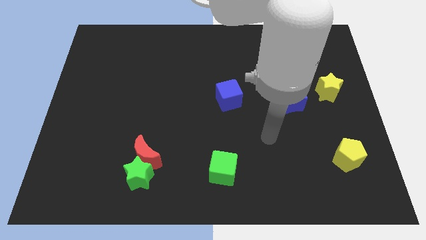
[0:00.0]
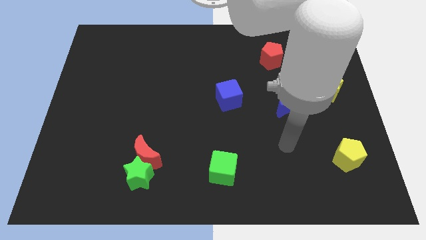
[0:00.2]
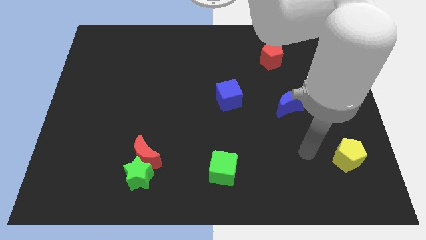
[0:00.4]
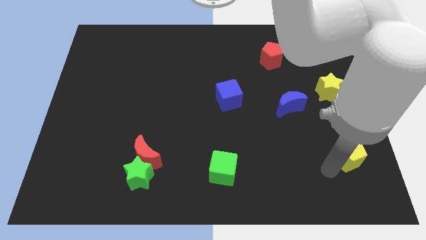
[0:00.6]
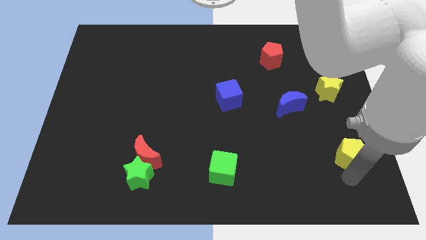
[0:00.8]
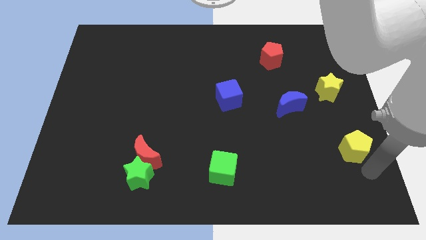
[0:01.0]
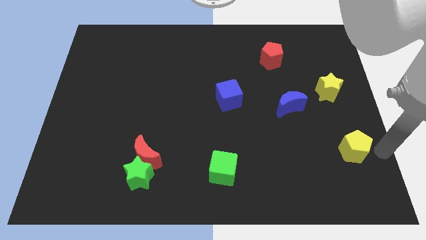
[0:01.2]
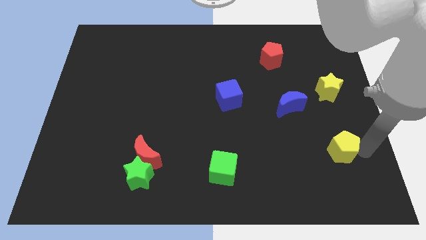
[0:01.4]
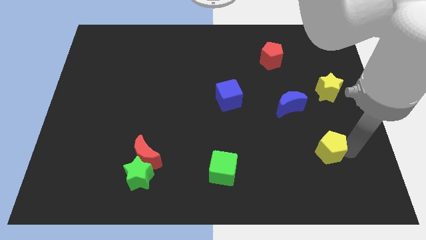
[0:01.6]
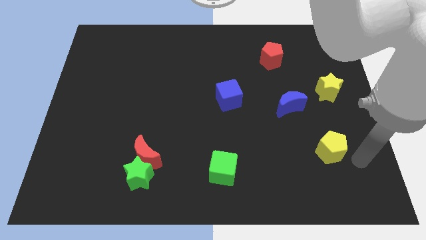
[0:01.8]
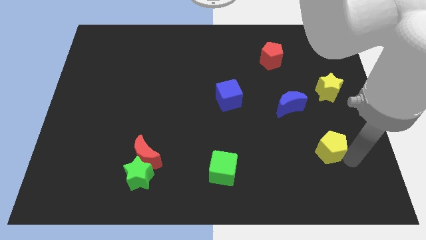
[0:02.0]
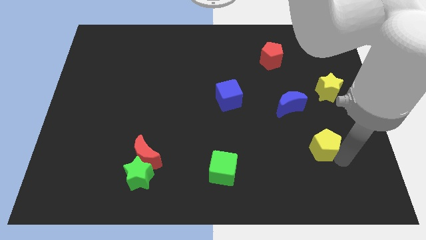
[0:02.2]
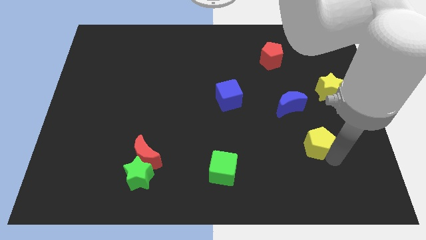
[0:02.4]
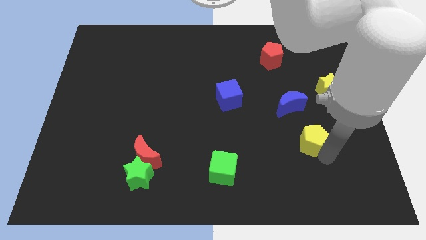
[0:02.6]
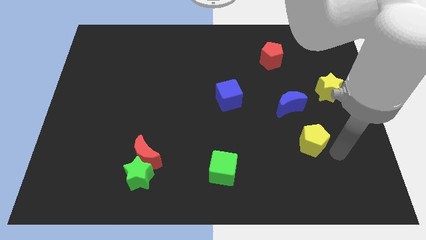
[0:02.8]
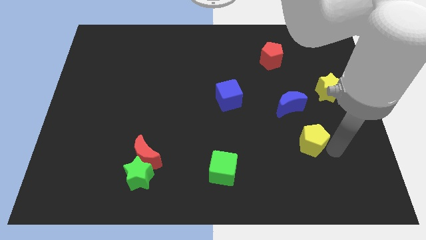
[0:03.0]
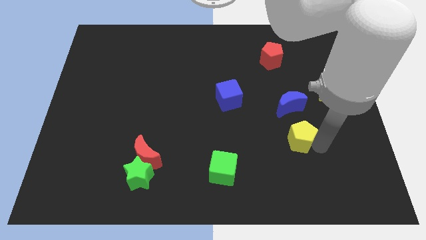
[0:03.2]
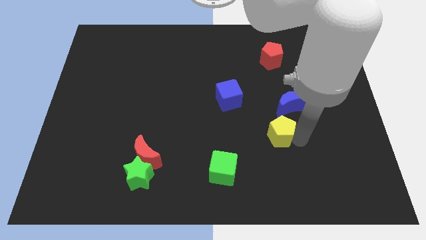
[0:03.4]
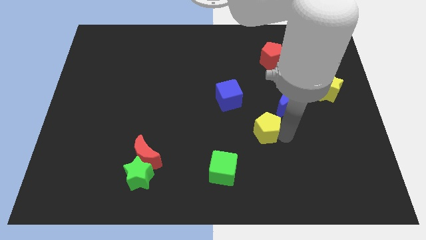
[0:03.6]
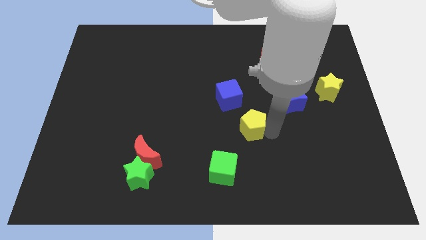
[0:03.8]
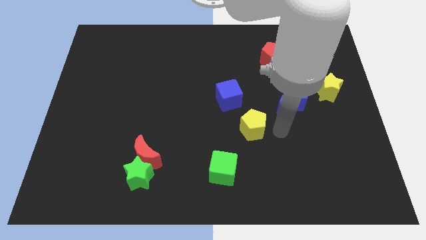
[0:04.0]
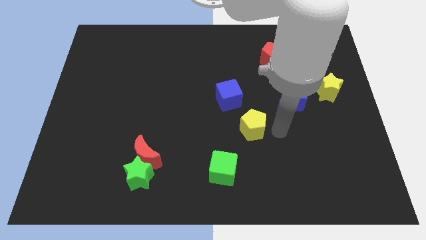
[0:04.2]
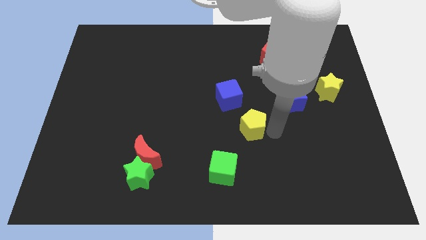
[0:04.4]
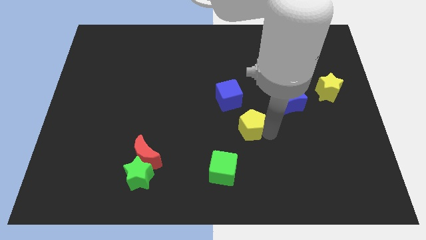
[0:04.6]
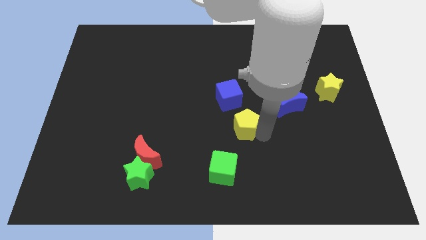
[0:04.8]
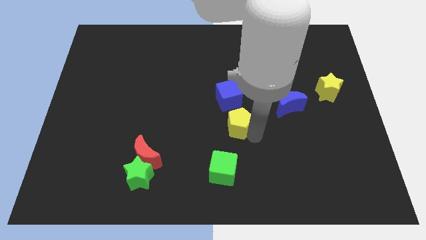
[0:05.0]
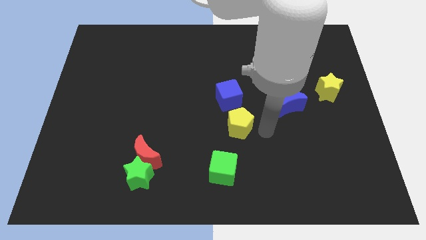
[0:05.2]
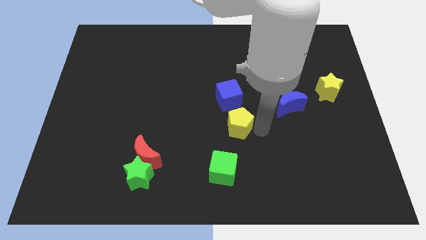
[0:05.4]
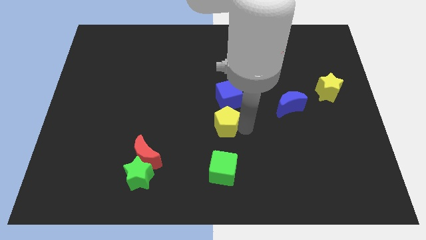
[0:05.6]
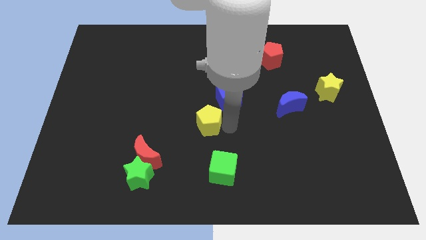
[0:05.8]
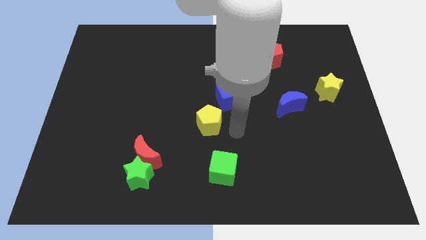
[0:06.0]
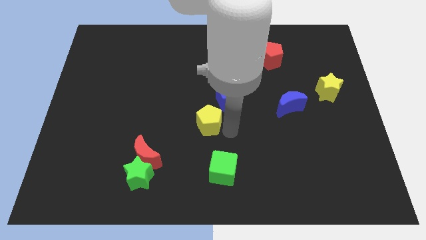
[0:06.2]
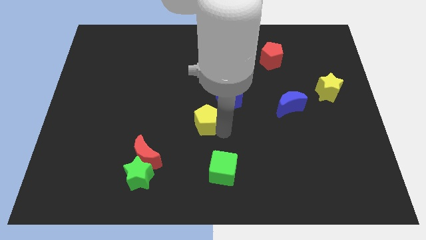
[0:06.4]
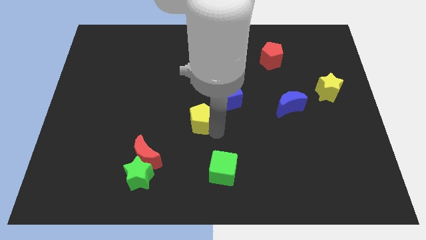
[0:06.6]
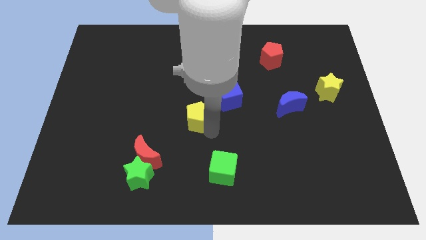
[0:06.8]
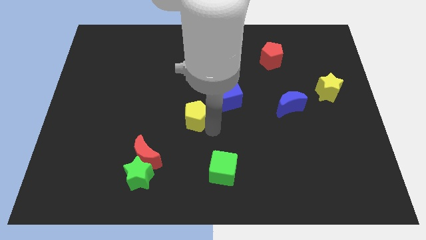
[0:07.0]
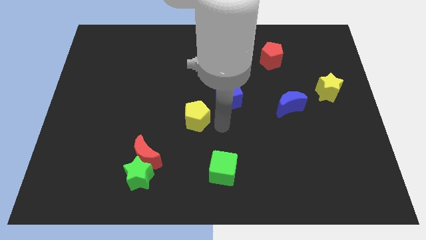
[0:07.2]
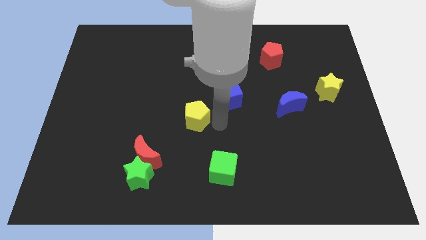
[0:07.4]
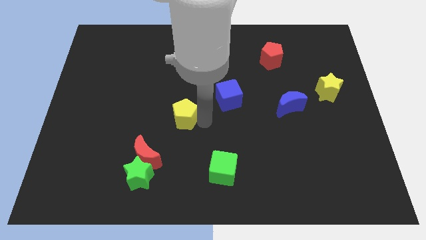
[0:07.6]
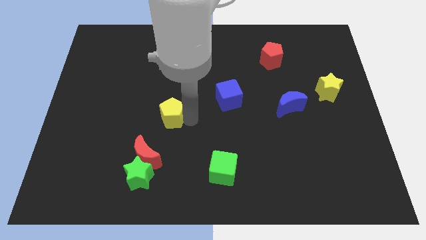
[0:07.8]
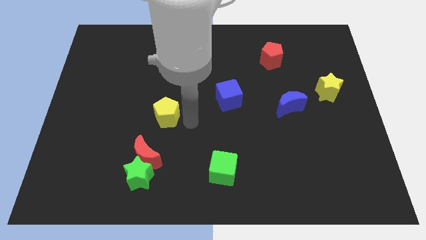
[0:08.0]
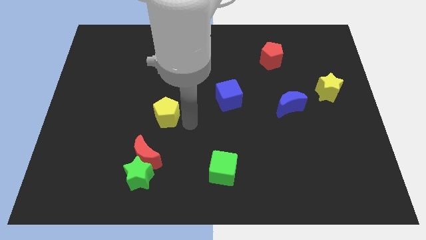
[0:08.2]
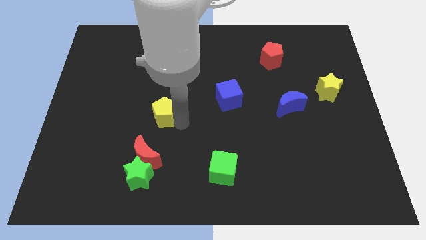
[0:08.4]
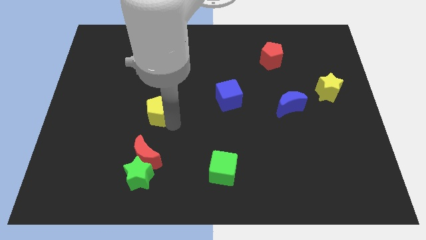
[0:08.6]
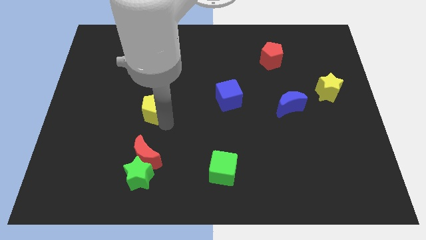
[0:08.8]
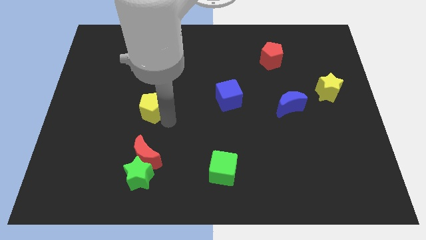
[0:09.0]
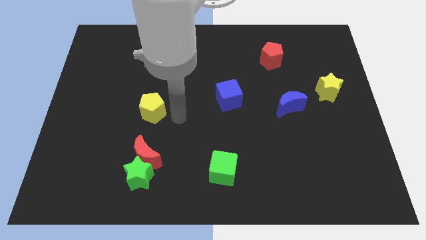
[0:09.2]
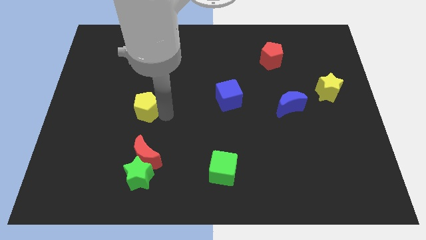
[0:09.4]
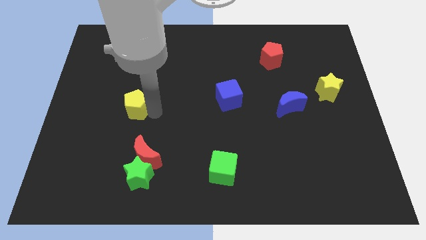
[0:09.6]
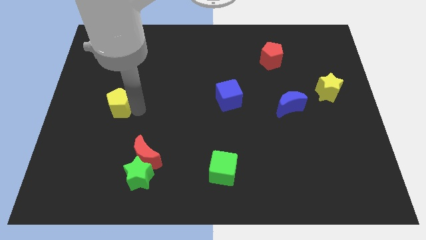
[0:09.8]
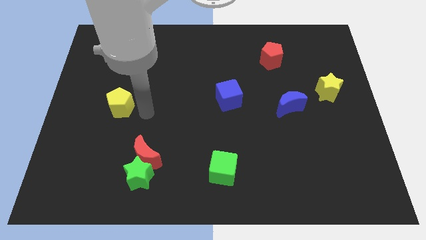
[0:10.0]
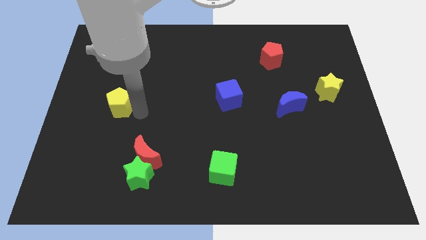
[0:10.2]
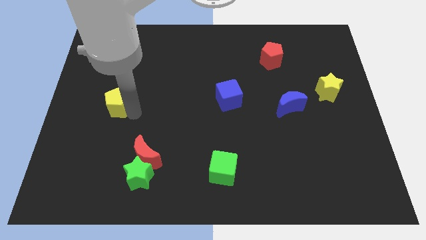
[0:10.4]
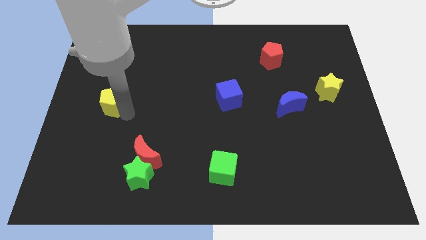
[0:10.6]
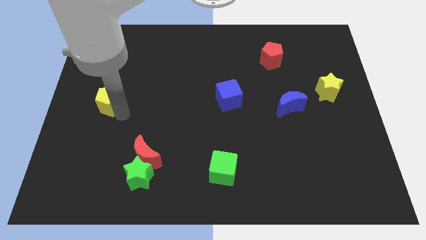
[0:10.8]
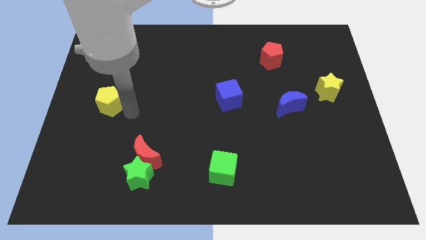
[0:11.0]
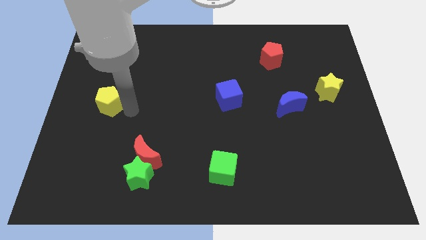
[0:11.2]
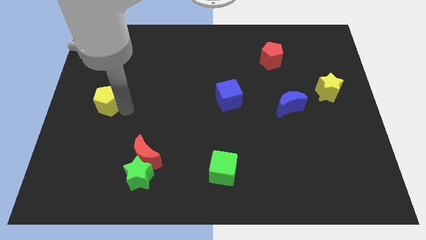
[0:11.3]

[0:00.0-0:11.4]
push the yellow pentagon to the left side of the board

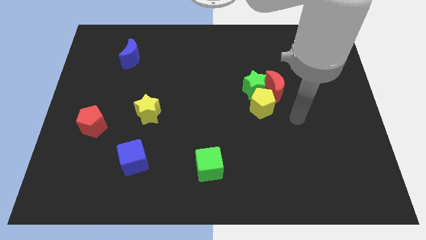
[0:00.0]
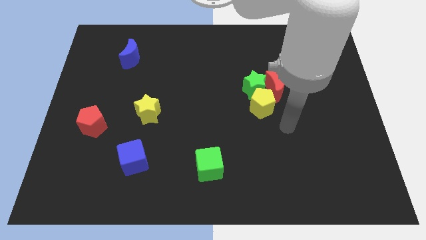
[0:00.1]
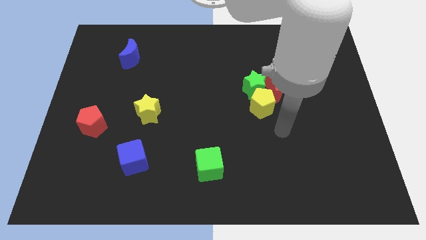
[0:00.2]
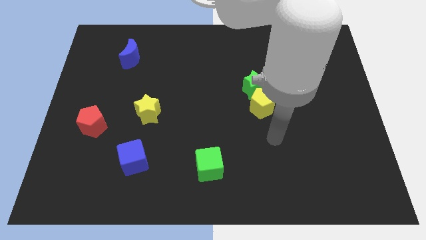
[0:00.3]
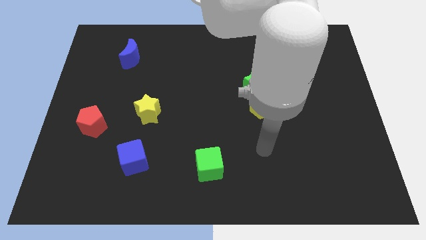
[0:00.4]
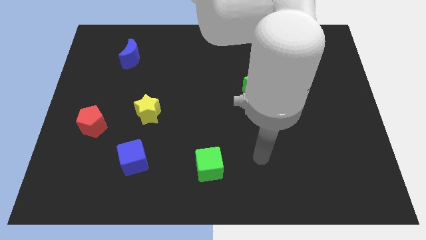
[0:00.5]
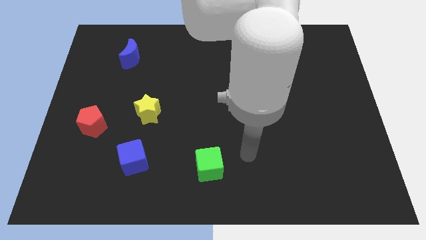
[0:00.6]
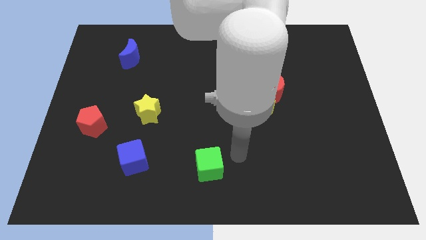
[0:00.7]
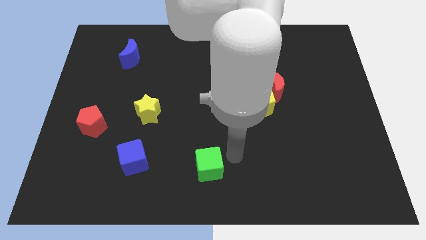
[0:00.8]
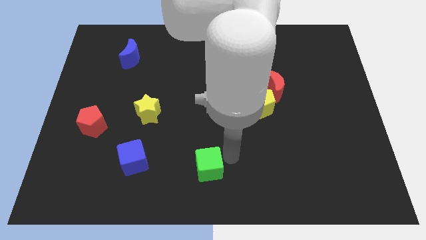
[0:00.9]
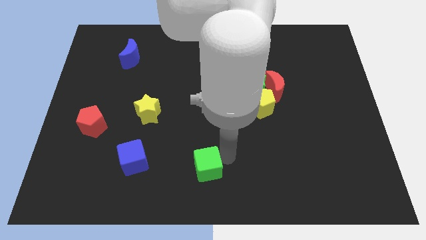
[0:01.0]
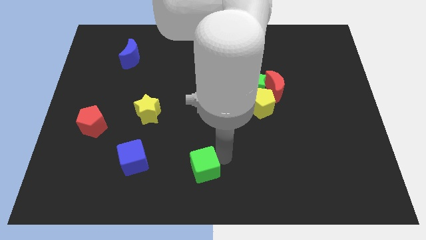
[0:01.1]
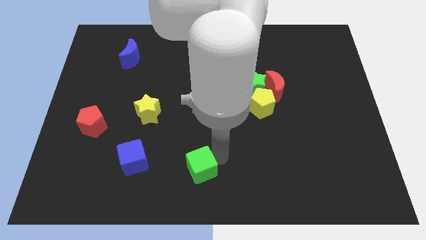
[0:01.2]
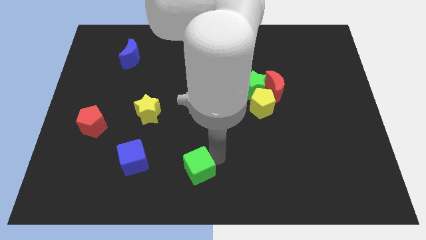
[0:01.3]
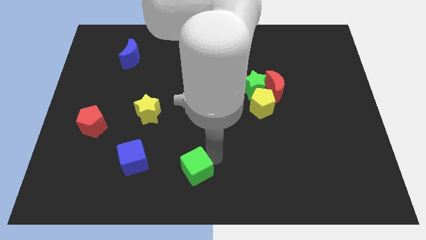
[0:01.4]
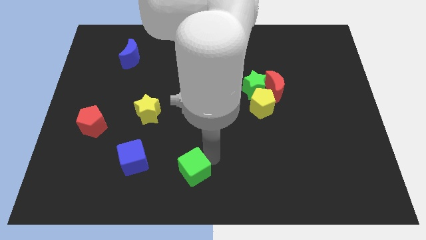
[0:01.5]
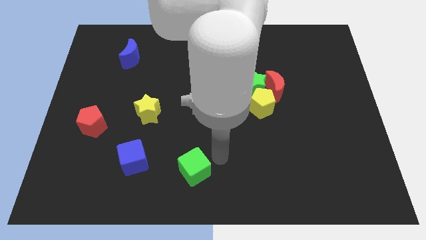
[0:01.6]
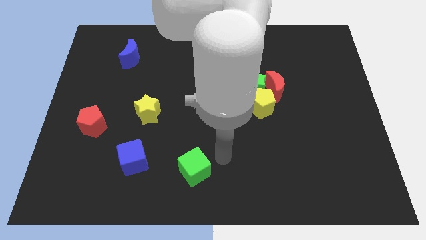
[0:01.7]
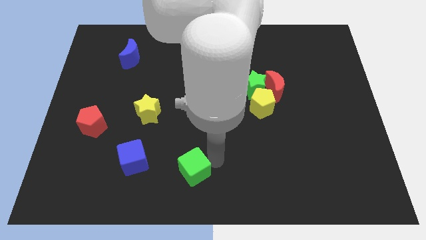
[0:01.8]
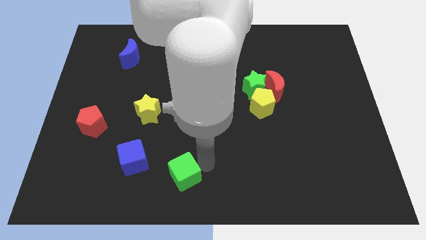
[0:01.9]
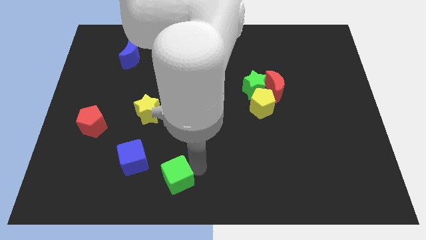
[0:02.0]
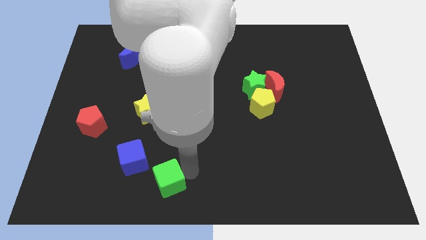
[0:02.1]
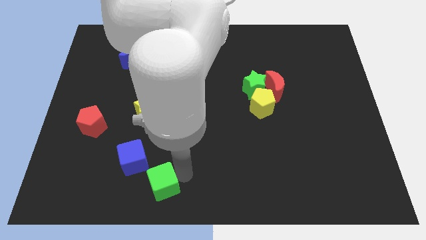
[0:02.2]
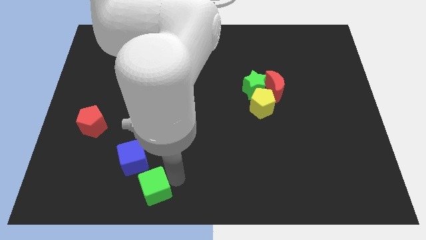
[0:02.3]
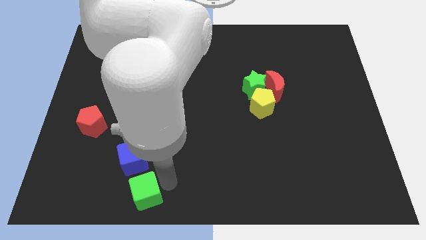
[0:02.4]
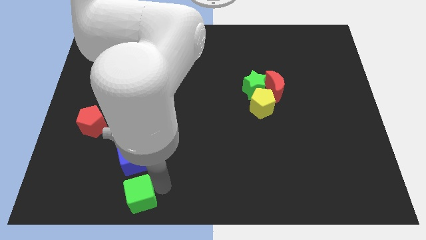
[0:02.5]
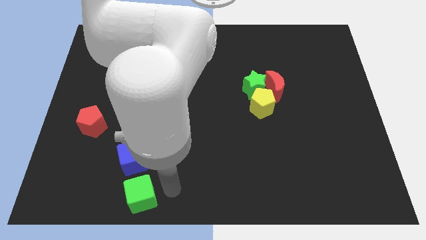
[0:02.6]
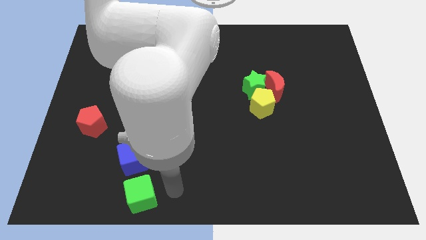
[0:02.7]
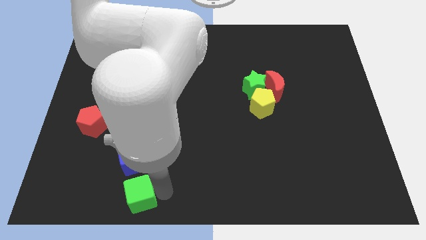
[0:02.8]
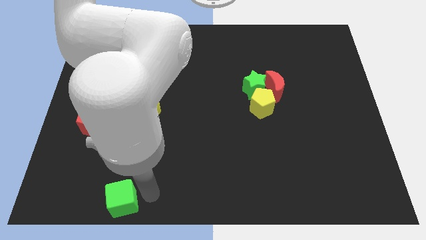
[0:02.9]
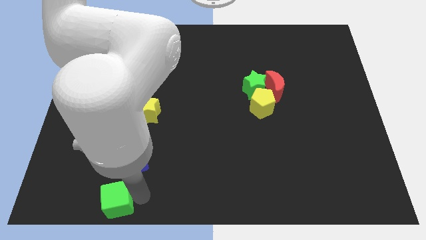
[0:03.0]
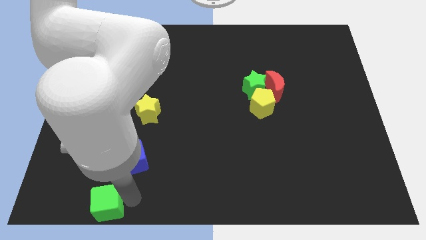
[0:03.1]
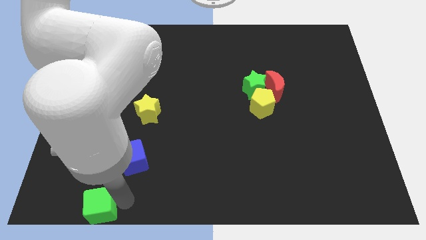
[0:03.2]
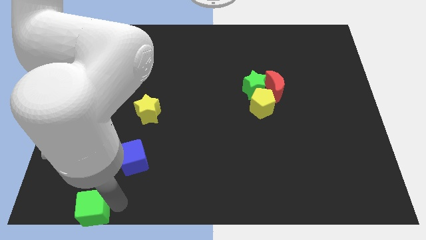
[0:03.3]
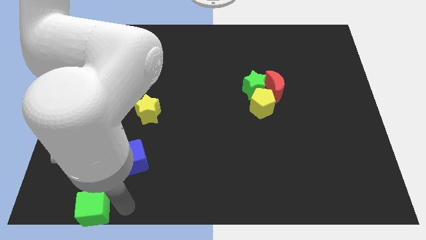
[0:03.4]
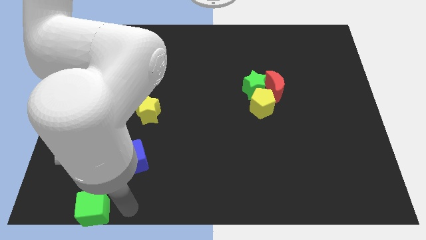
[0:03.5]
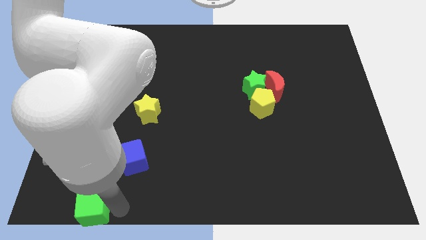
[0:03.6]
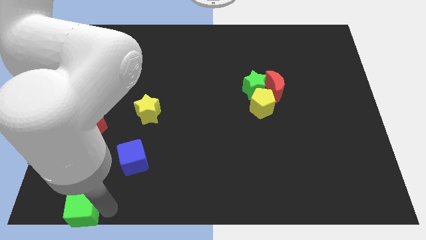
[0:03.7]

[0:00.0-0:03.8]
put the green cube to the bottom left corner
